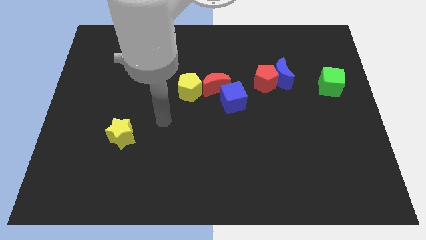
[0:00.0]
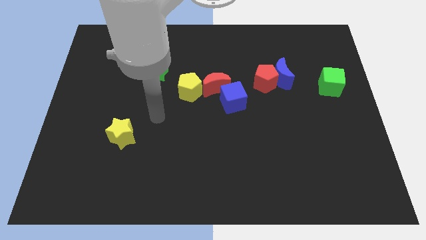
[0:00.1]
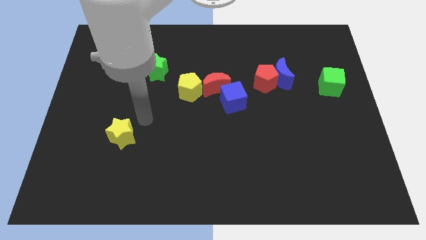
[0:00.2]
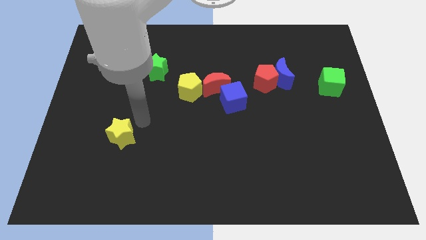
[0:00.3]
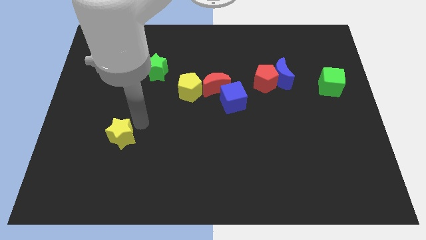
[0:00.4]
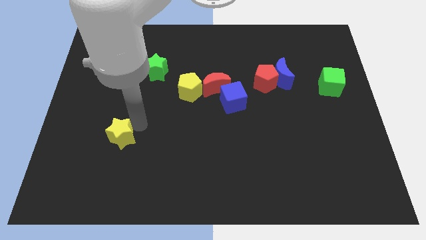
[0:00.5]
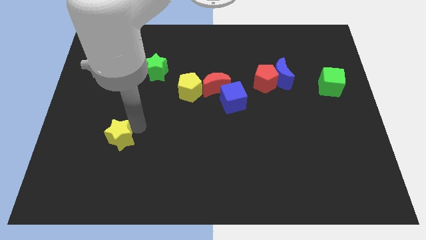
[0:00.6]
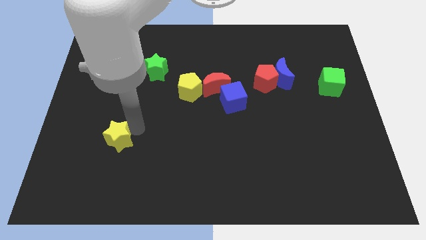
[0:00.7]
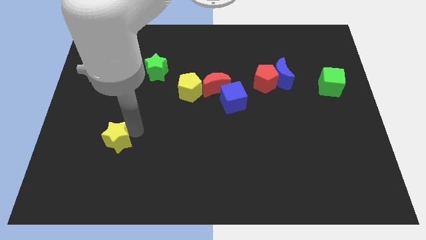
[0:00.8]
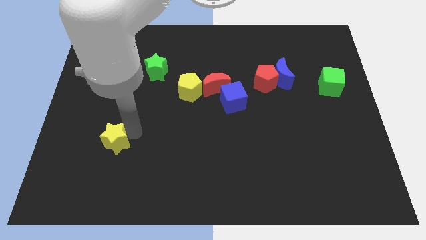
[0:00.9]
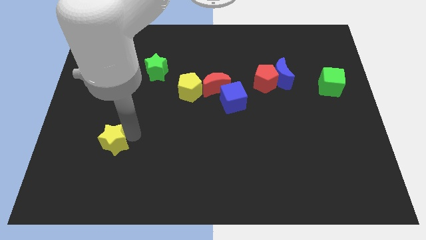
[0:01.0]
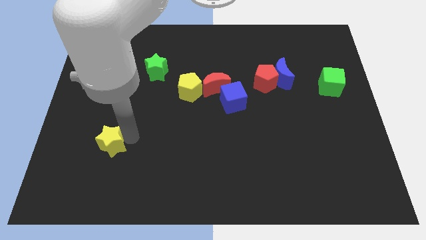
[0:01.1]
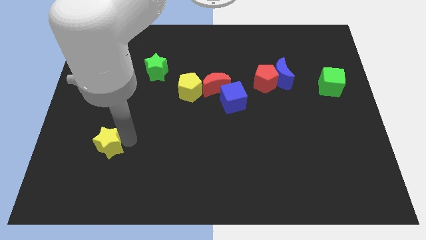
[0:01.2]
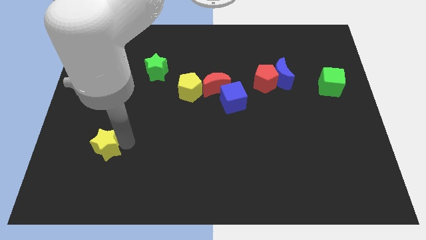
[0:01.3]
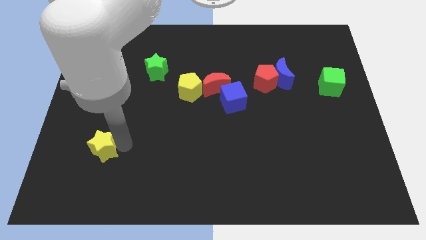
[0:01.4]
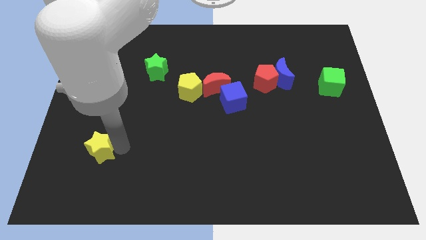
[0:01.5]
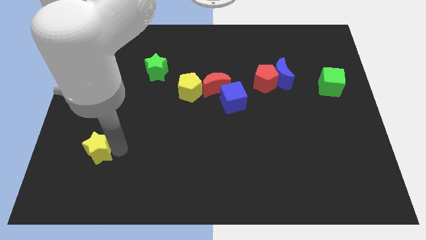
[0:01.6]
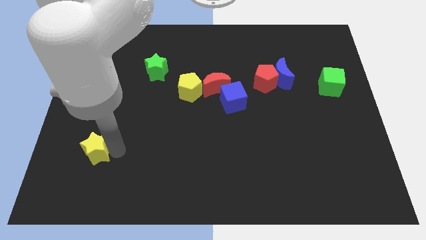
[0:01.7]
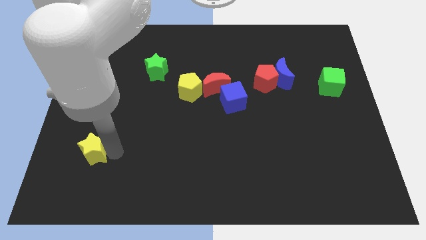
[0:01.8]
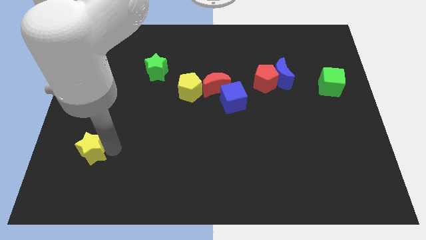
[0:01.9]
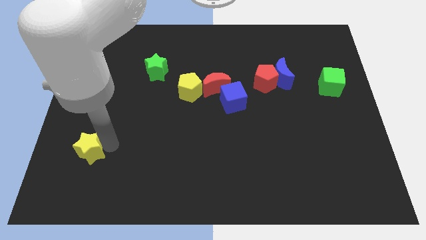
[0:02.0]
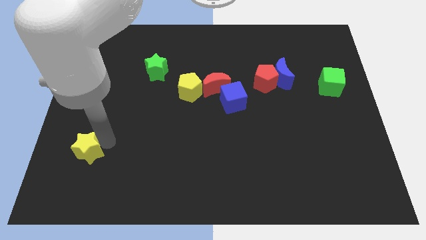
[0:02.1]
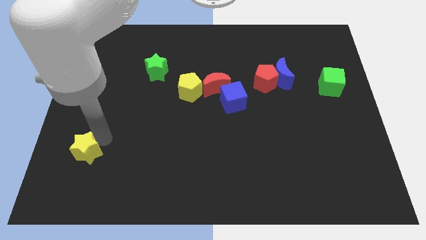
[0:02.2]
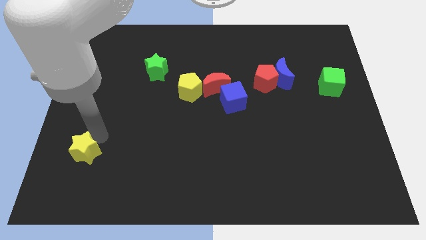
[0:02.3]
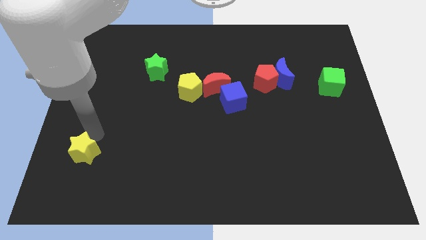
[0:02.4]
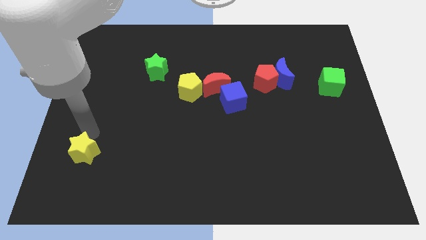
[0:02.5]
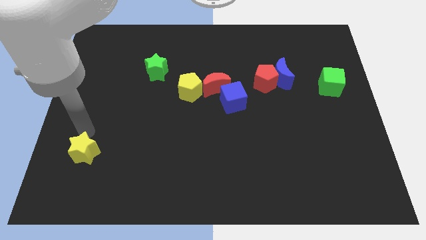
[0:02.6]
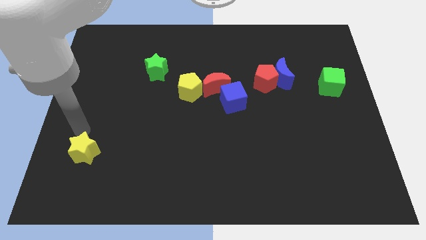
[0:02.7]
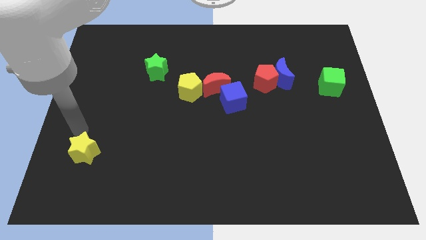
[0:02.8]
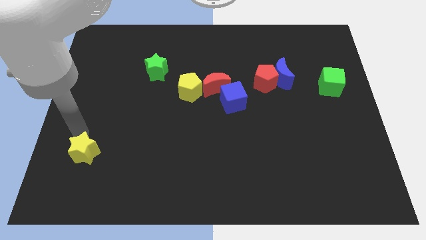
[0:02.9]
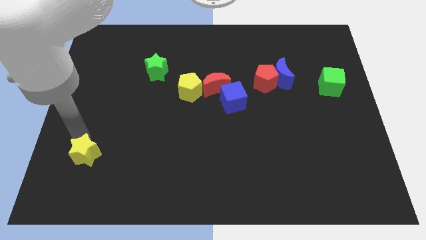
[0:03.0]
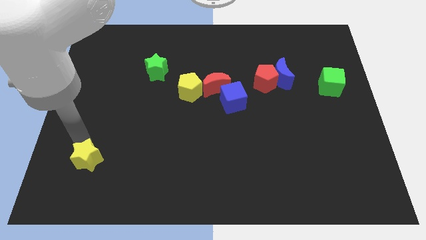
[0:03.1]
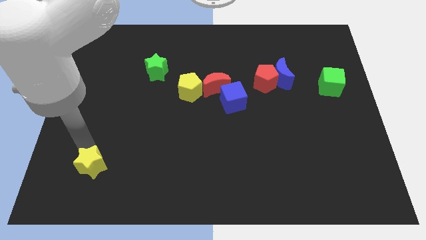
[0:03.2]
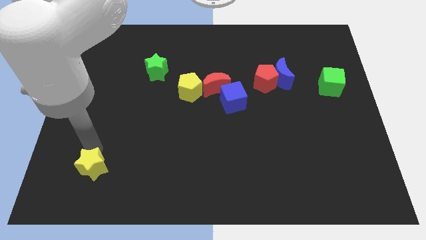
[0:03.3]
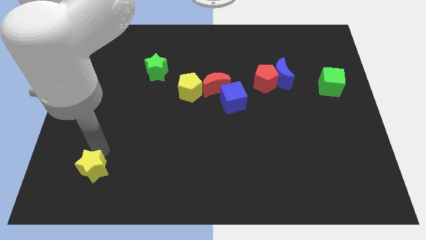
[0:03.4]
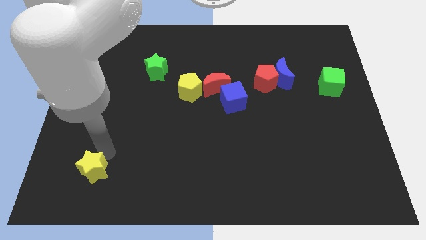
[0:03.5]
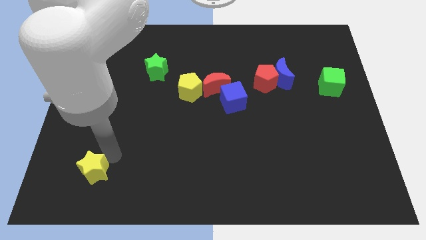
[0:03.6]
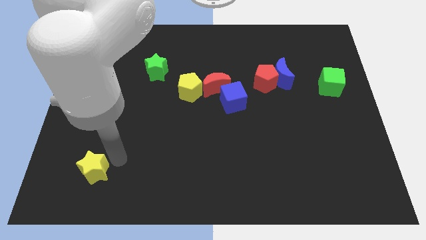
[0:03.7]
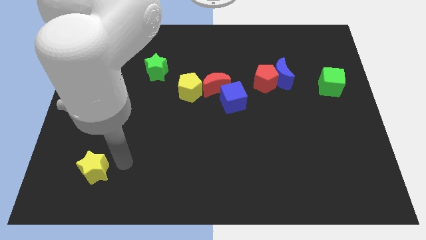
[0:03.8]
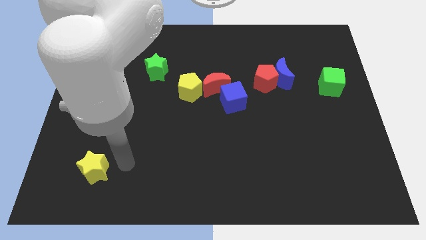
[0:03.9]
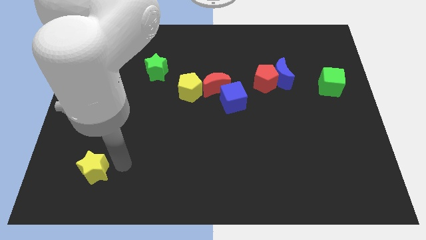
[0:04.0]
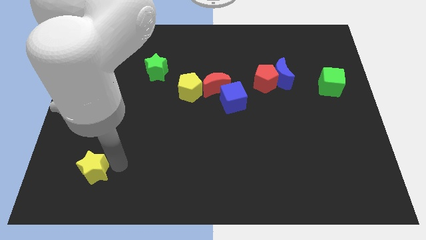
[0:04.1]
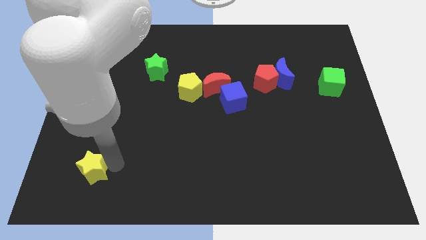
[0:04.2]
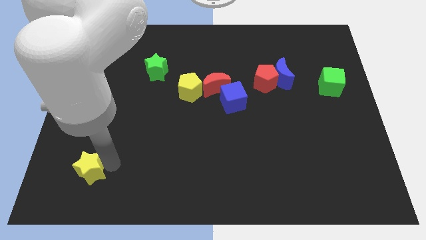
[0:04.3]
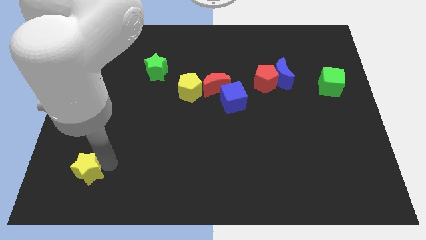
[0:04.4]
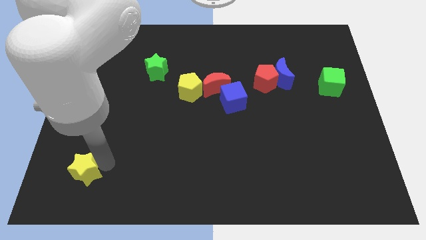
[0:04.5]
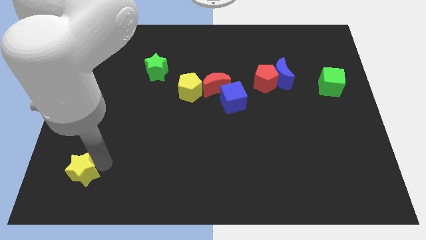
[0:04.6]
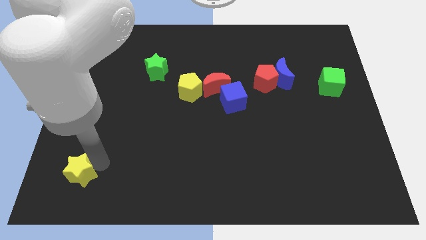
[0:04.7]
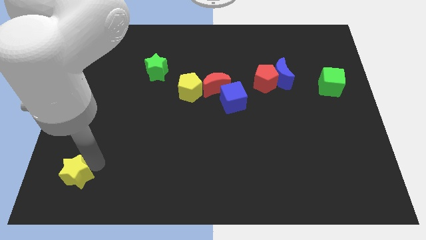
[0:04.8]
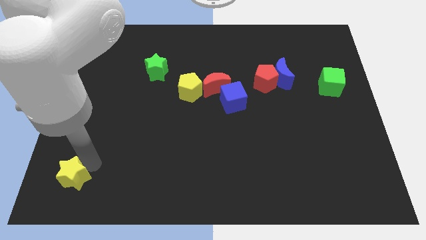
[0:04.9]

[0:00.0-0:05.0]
put the yellow star to the bottom left corner
